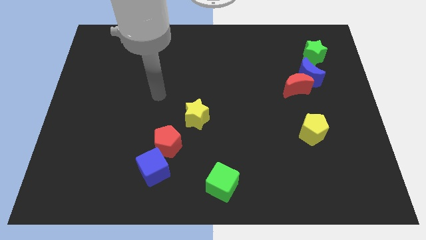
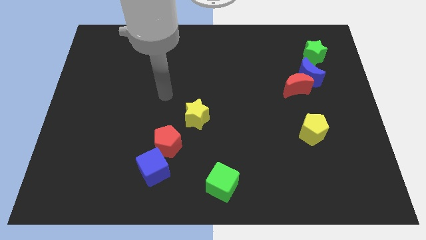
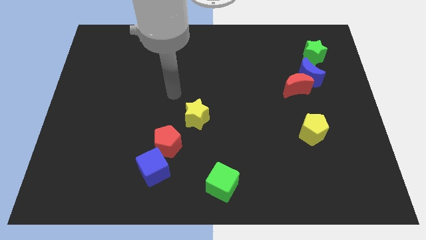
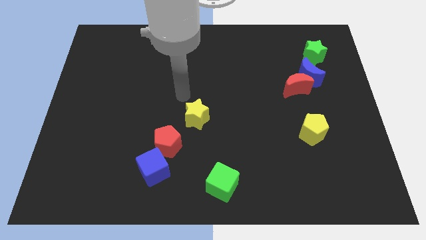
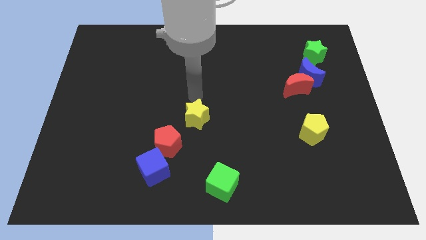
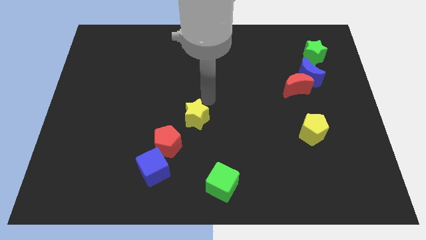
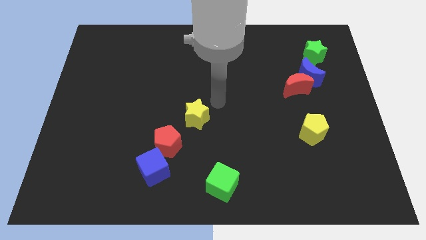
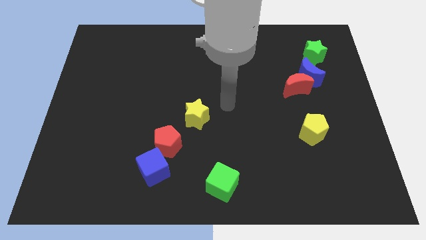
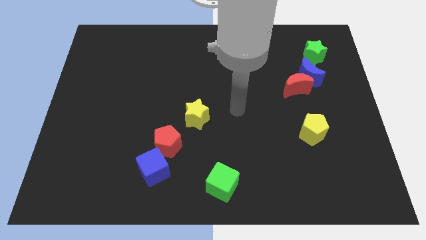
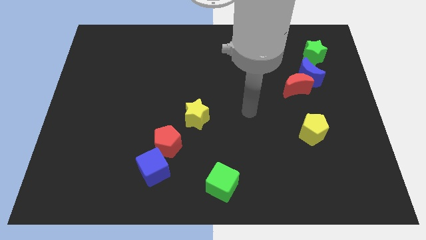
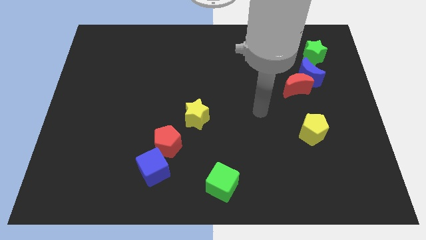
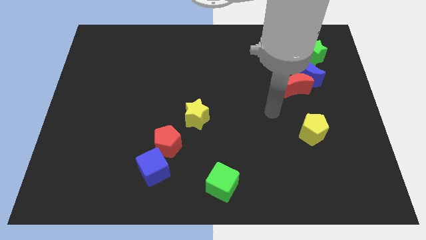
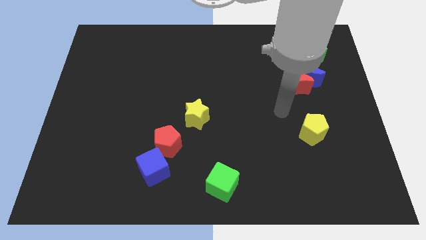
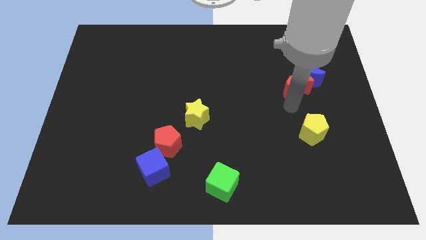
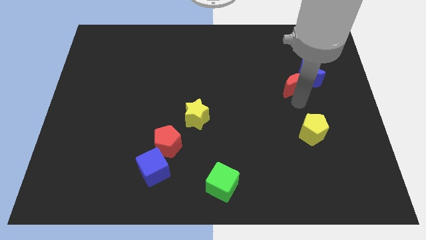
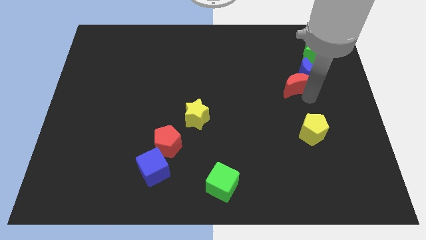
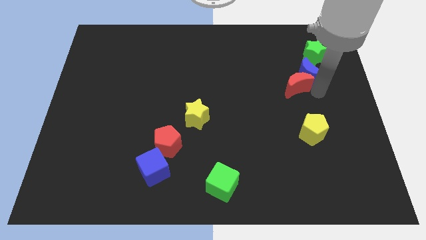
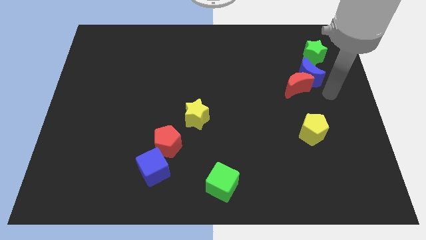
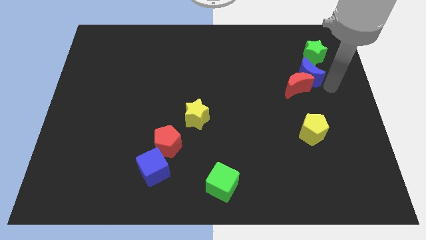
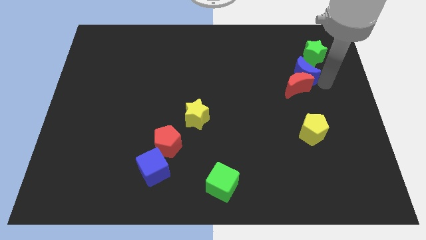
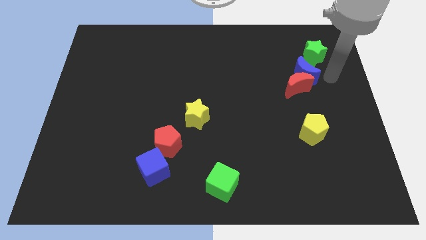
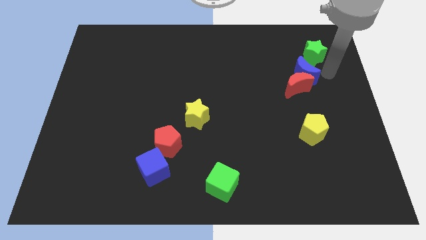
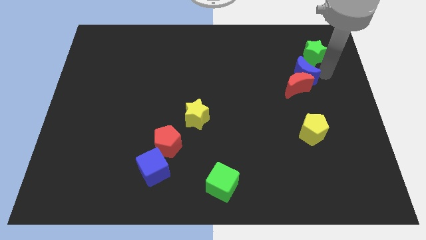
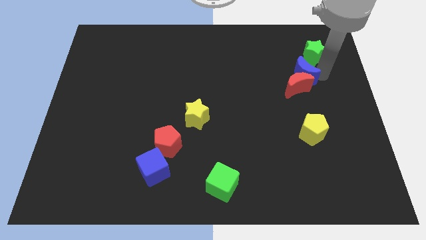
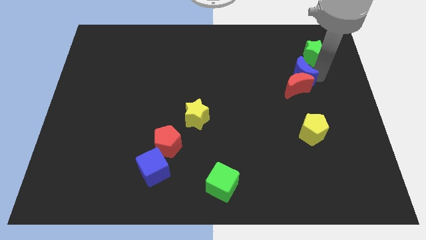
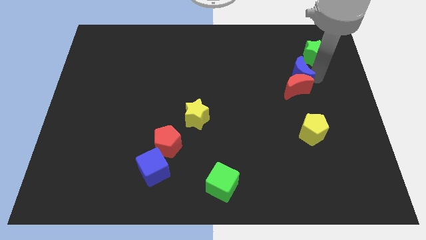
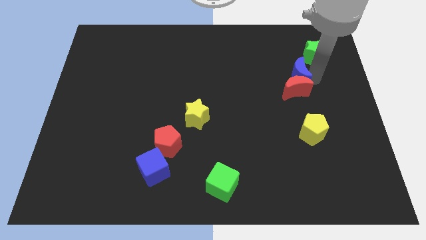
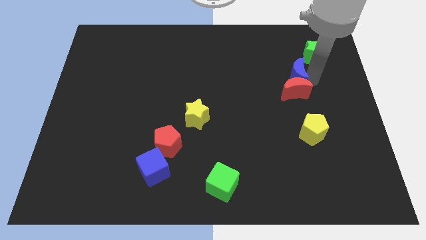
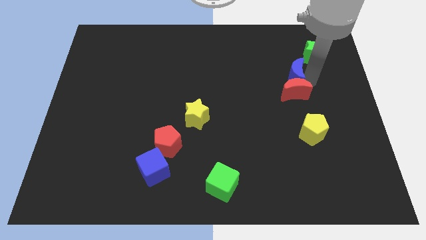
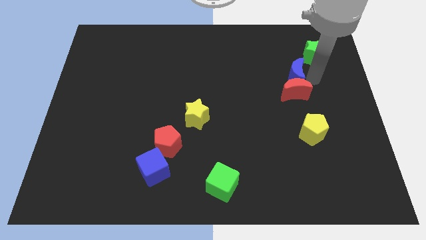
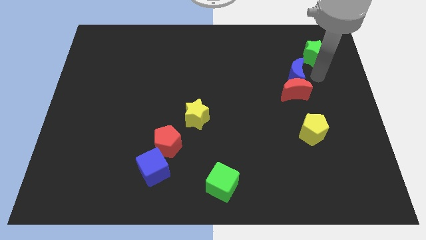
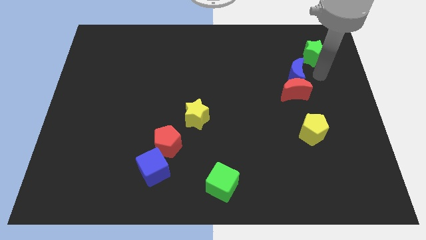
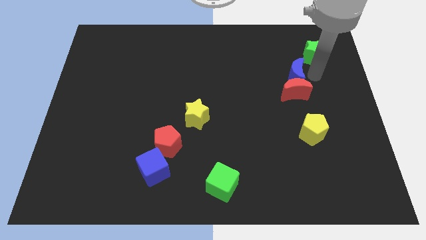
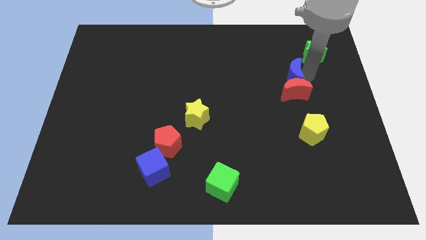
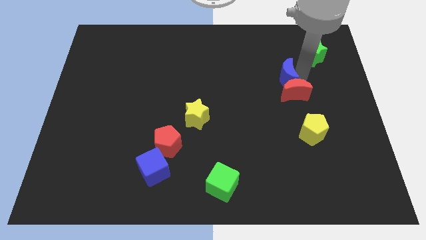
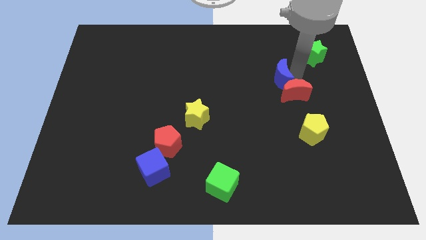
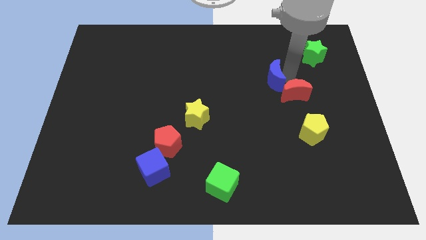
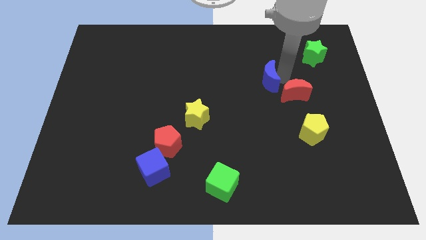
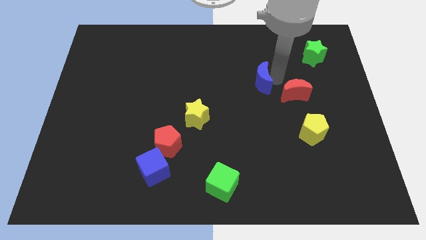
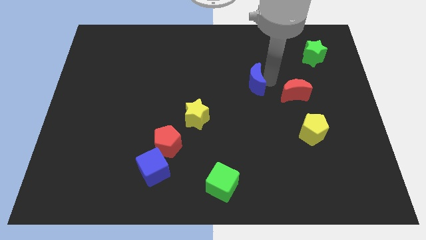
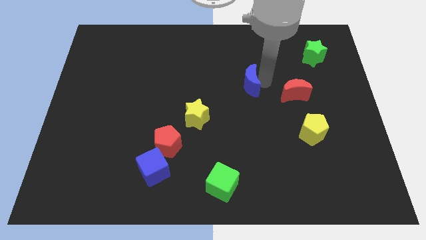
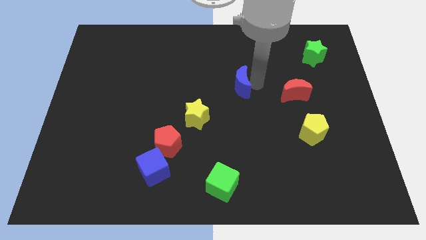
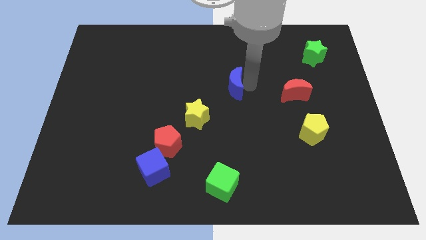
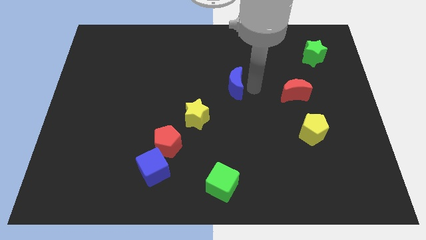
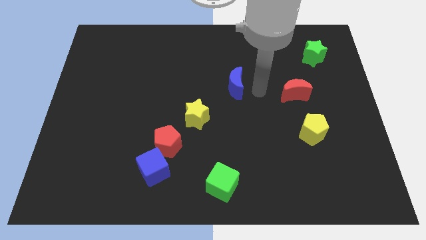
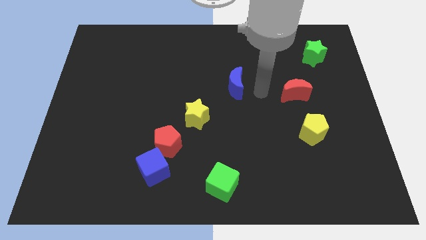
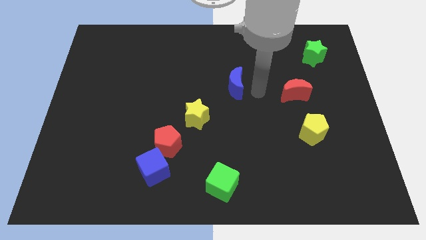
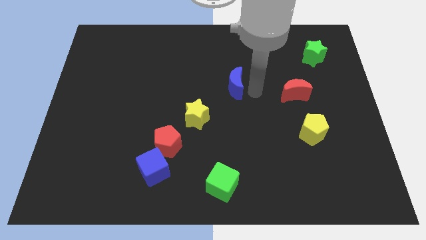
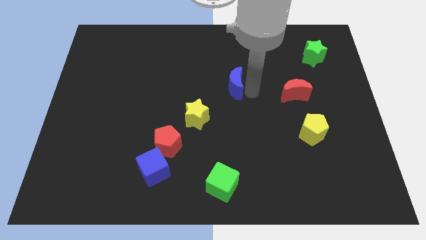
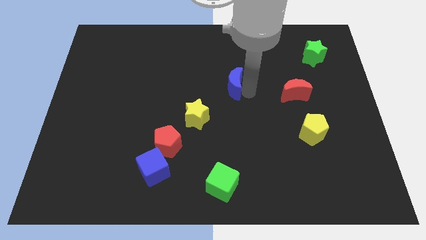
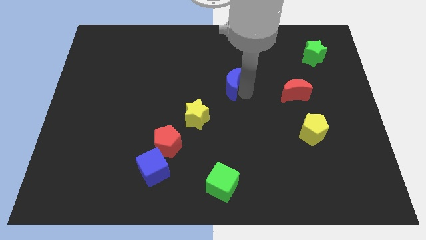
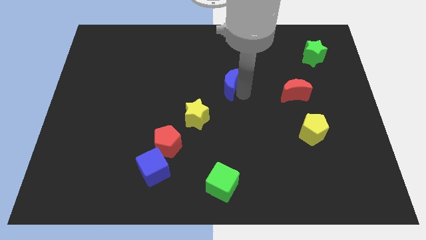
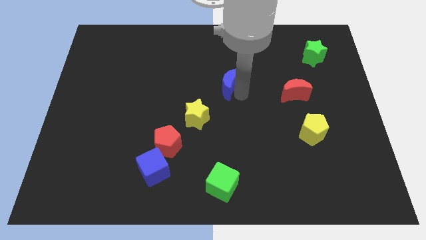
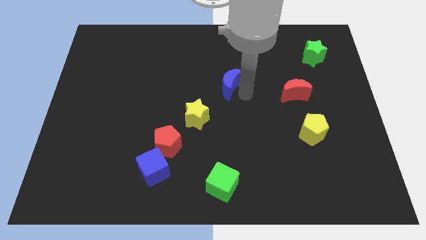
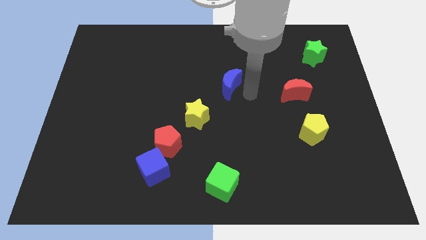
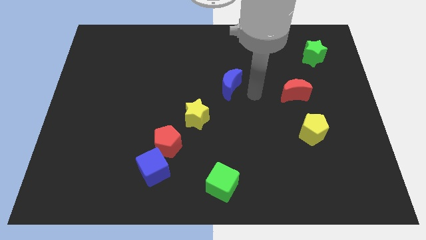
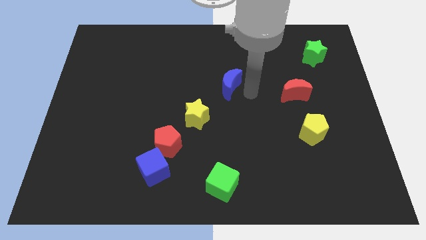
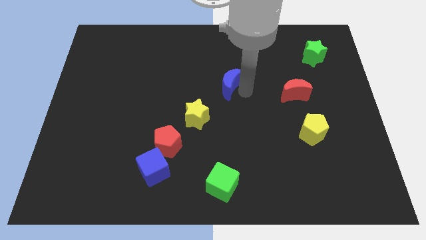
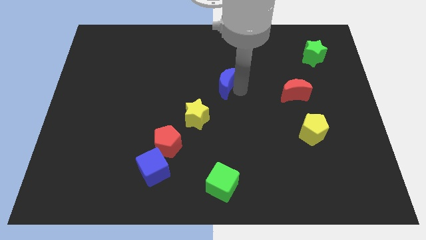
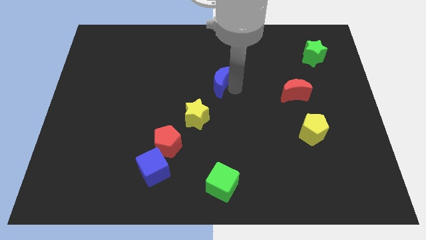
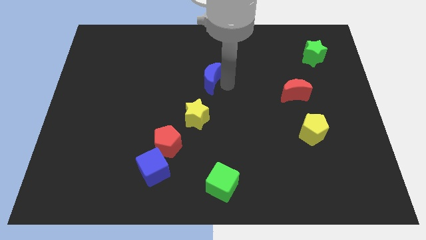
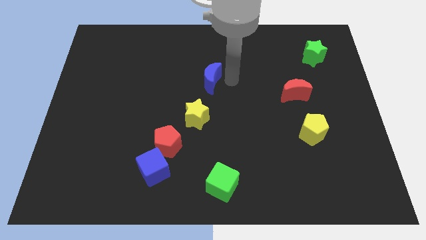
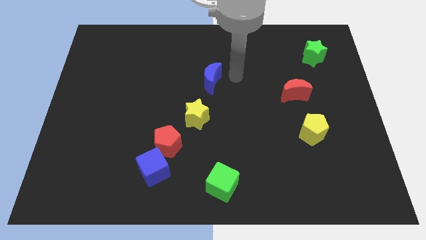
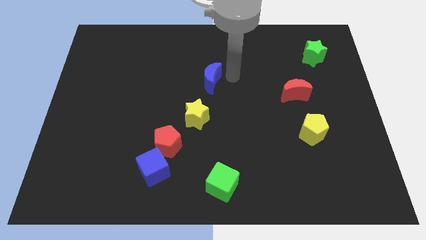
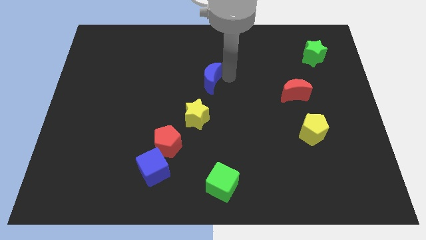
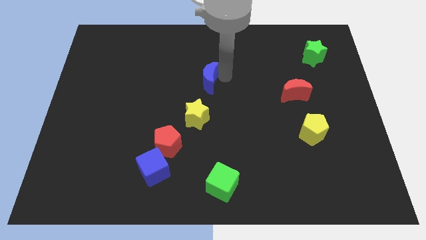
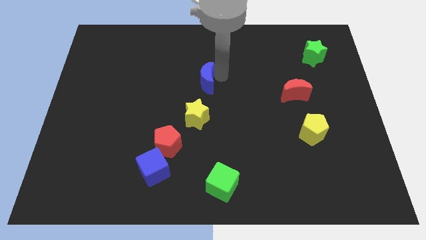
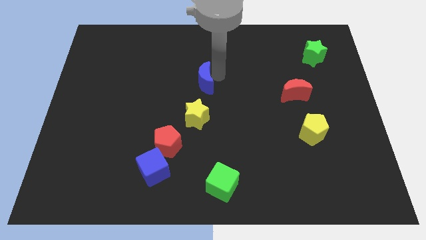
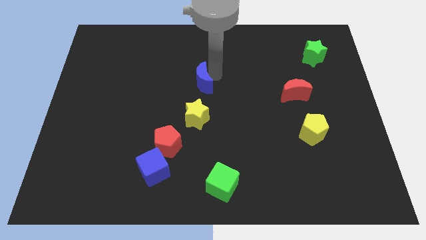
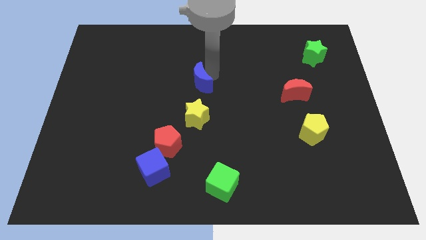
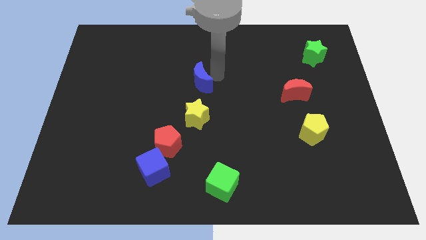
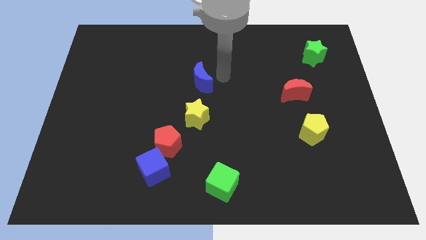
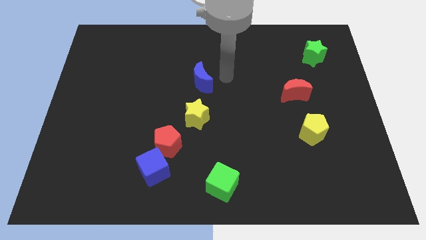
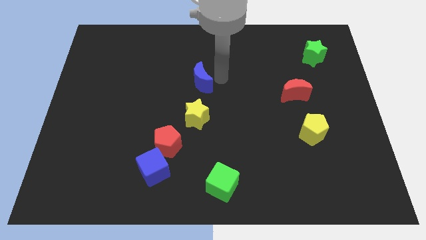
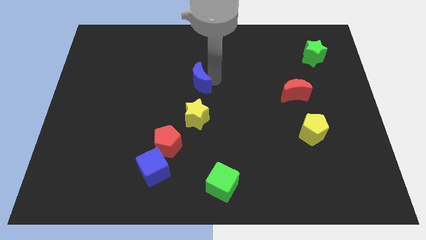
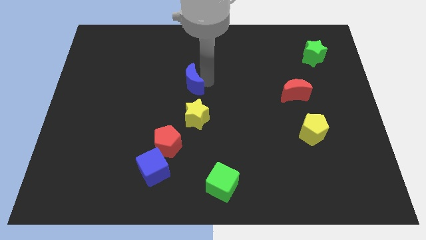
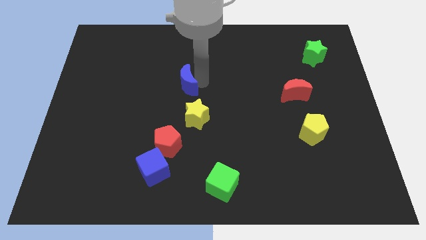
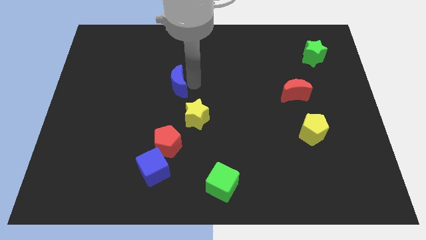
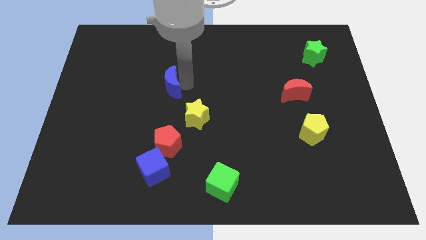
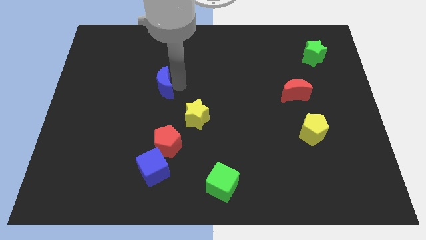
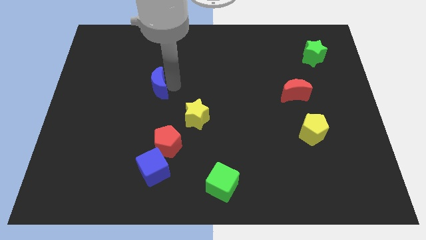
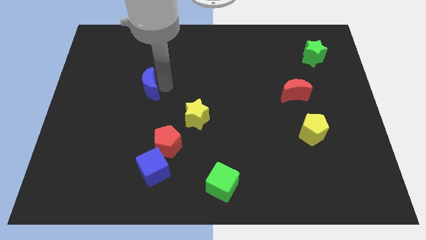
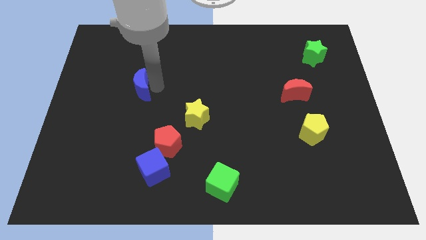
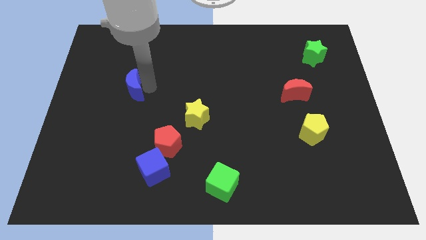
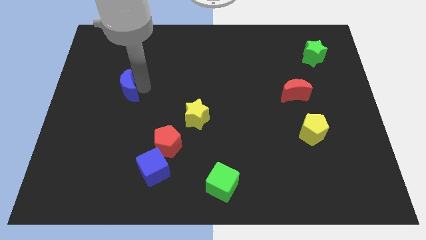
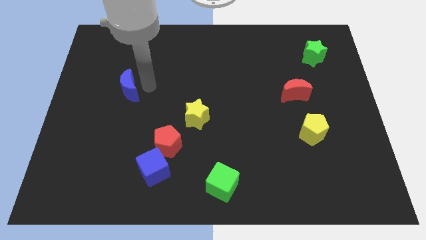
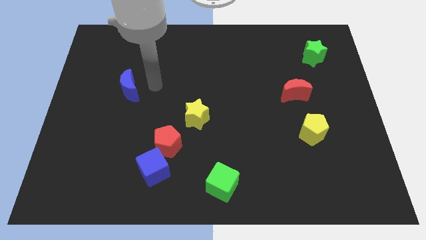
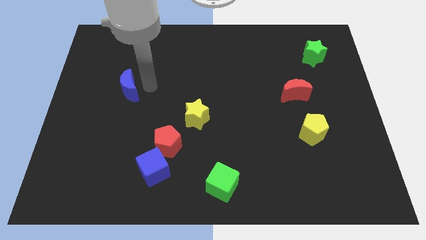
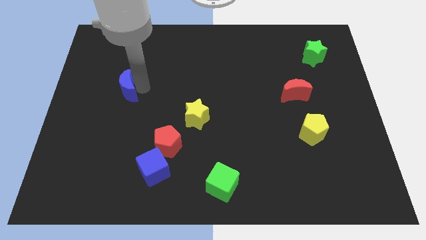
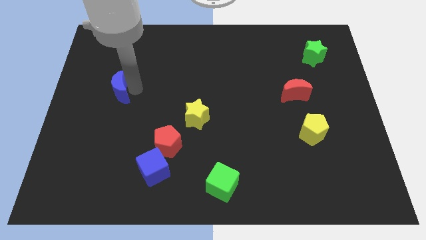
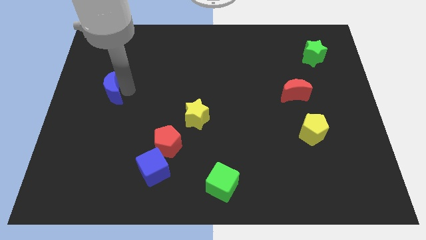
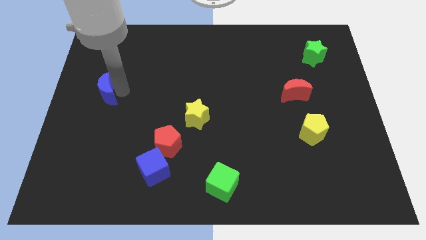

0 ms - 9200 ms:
move the blue moon to the center left
